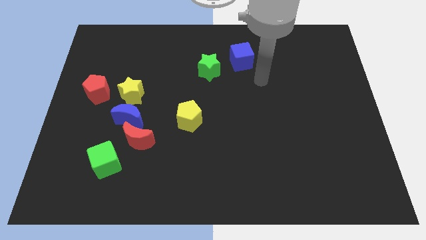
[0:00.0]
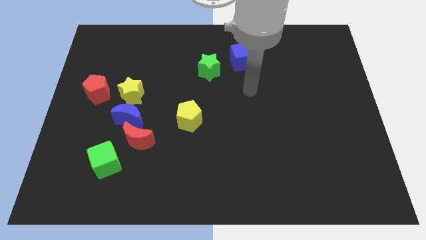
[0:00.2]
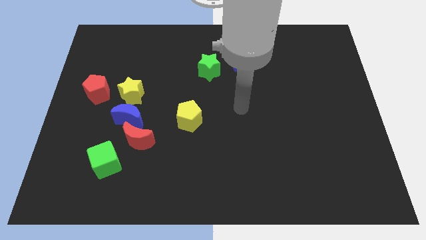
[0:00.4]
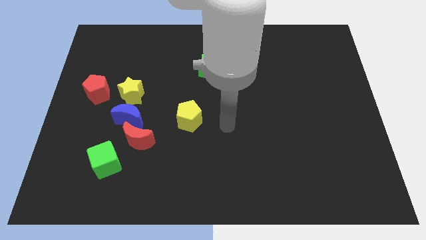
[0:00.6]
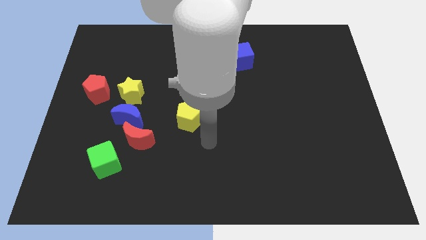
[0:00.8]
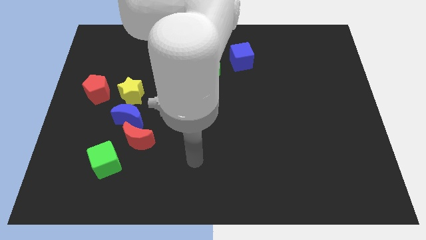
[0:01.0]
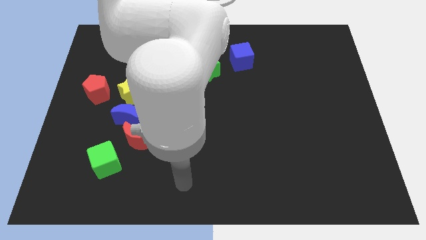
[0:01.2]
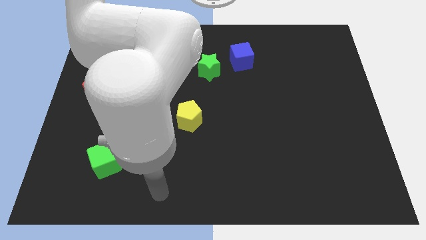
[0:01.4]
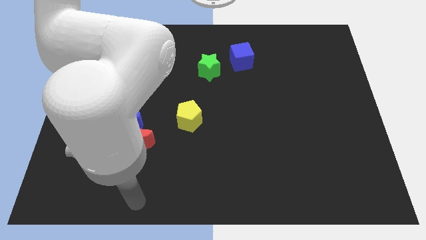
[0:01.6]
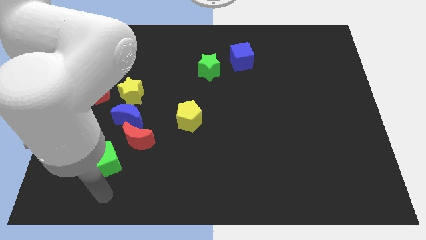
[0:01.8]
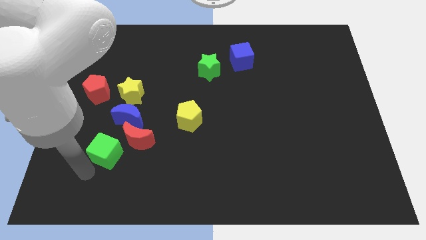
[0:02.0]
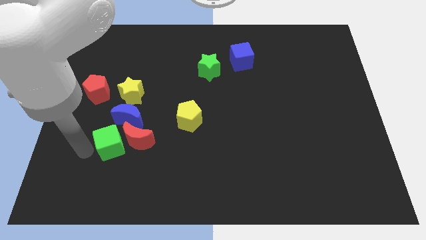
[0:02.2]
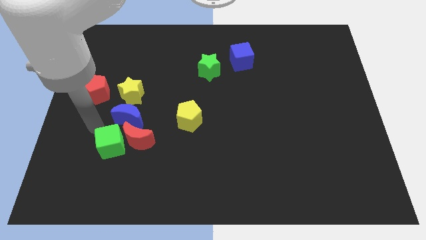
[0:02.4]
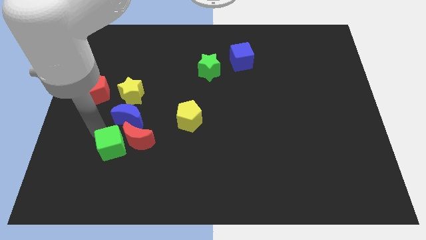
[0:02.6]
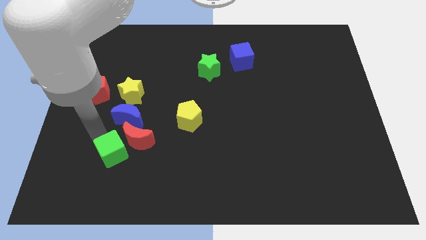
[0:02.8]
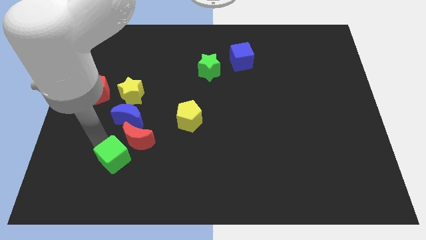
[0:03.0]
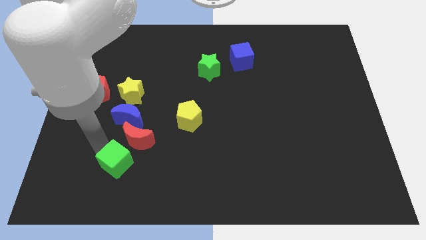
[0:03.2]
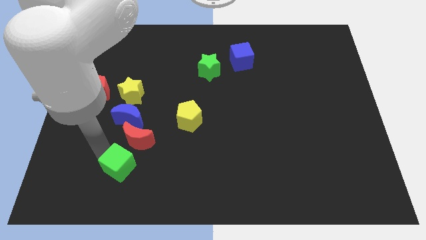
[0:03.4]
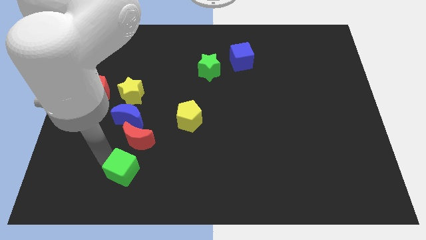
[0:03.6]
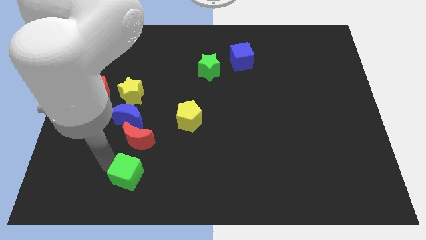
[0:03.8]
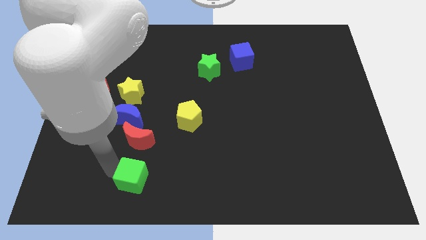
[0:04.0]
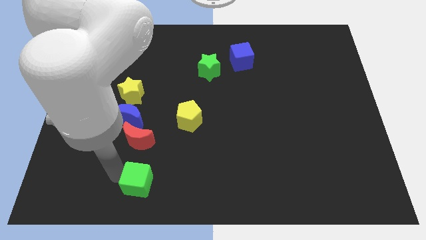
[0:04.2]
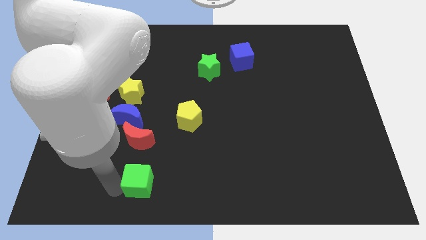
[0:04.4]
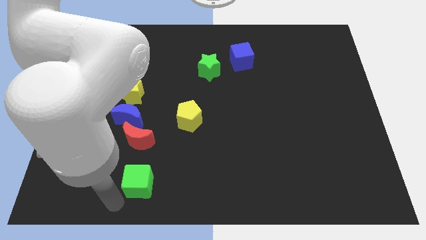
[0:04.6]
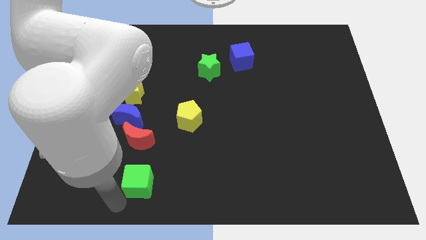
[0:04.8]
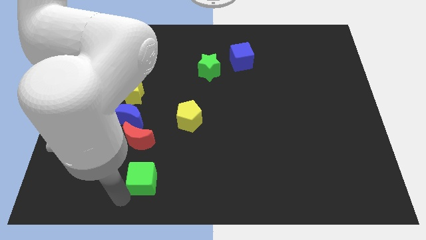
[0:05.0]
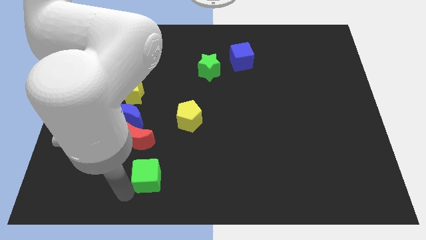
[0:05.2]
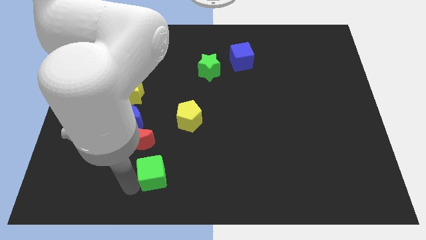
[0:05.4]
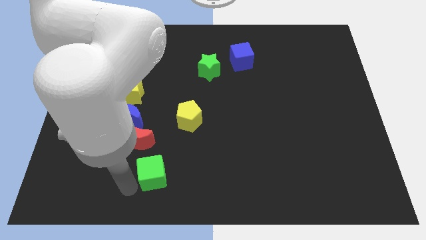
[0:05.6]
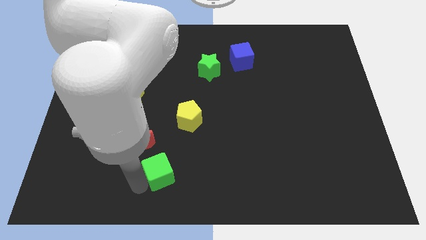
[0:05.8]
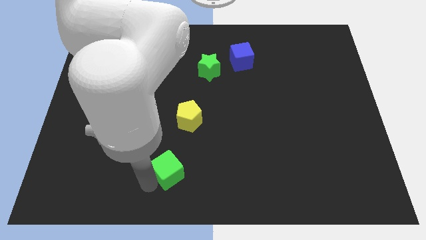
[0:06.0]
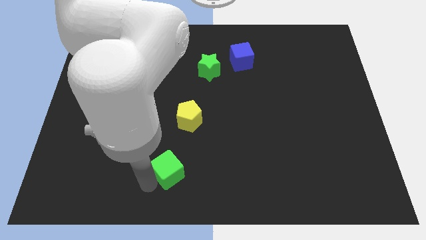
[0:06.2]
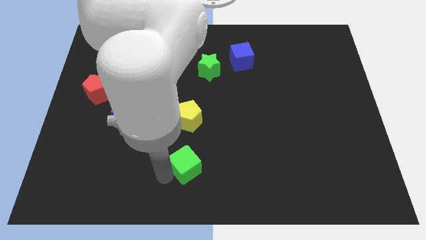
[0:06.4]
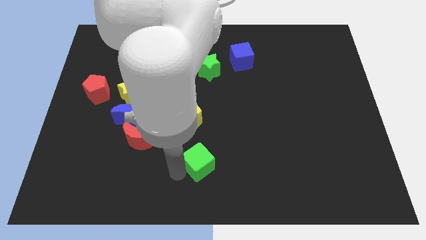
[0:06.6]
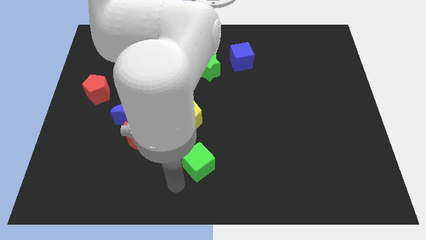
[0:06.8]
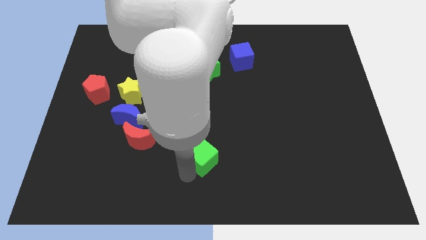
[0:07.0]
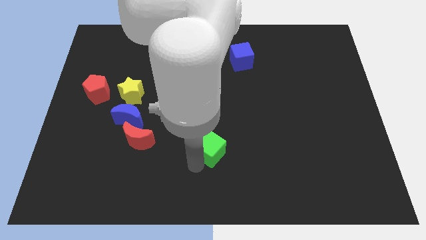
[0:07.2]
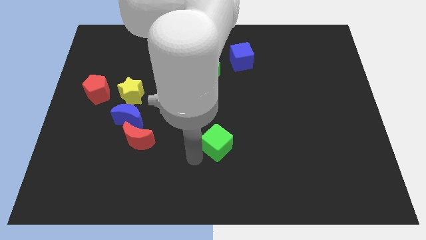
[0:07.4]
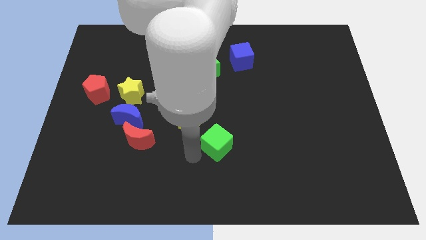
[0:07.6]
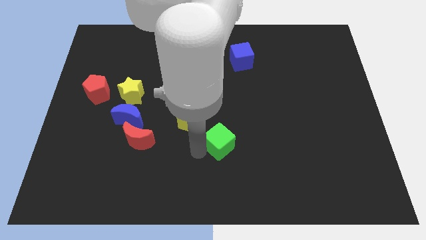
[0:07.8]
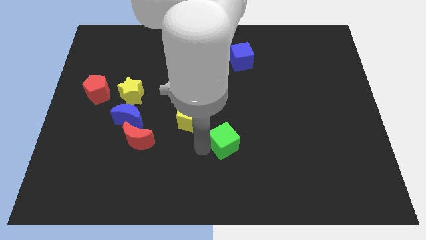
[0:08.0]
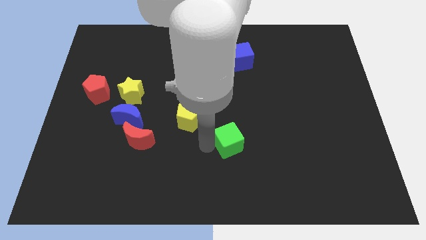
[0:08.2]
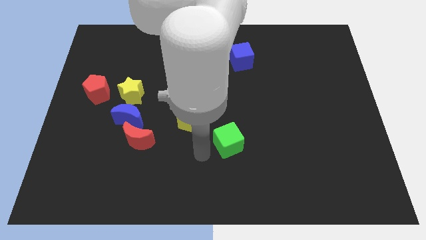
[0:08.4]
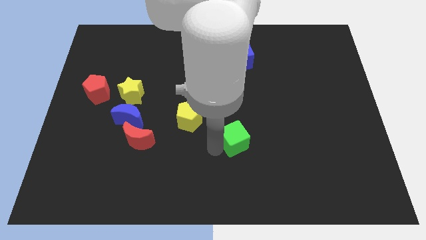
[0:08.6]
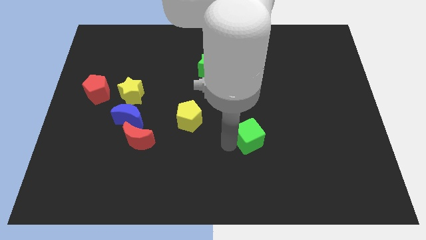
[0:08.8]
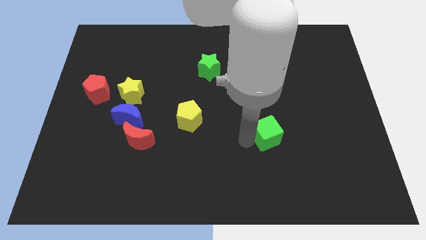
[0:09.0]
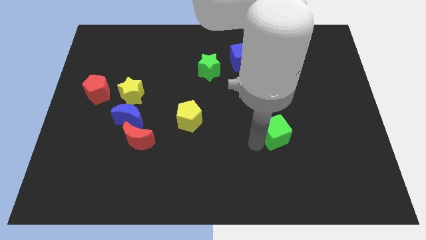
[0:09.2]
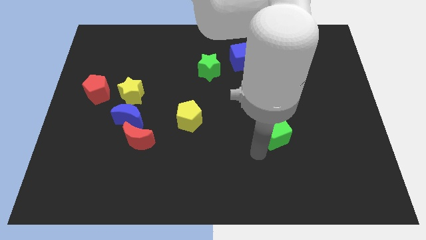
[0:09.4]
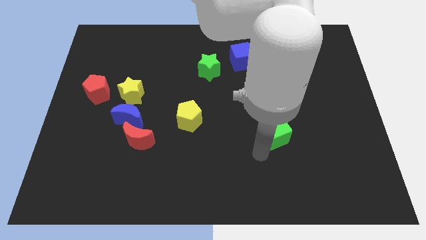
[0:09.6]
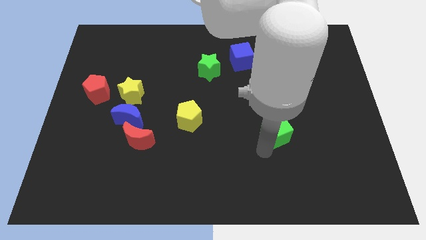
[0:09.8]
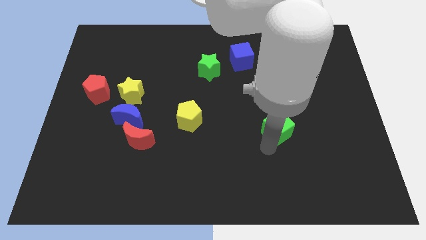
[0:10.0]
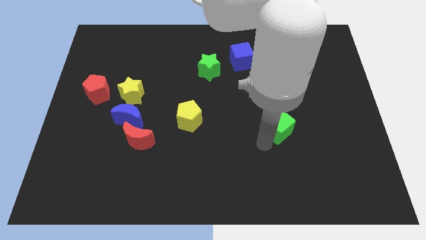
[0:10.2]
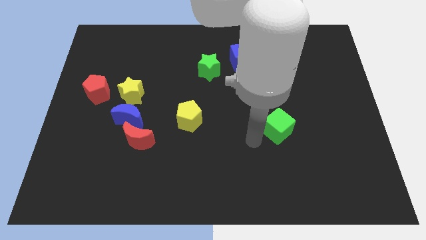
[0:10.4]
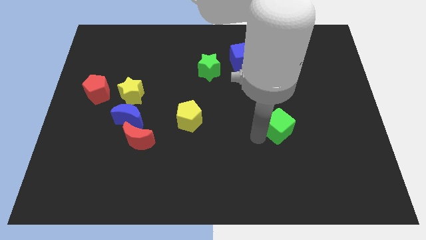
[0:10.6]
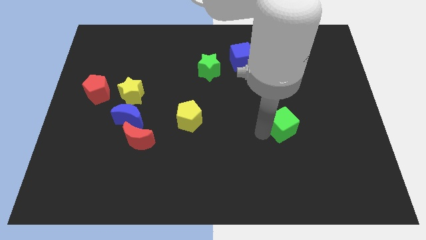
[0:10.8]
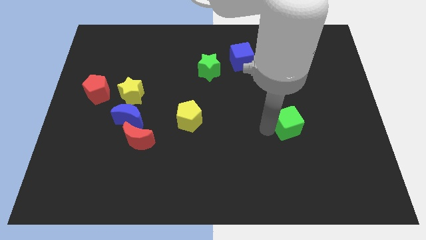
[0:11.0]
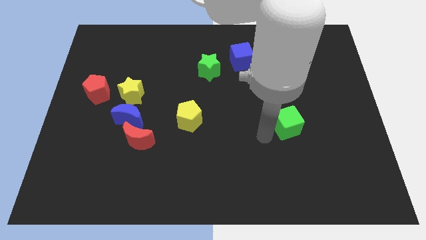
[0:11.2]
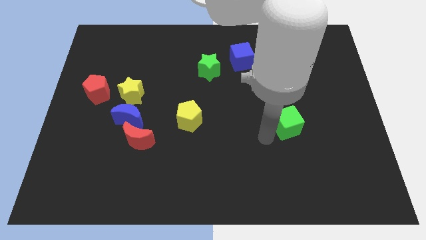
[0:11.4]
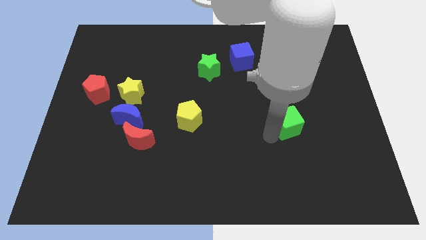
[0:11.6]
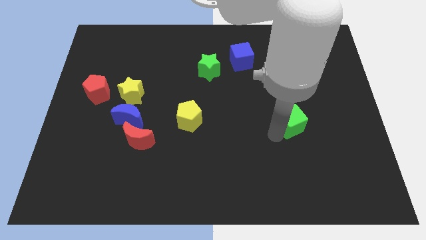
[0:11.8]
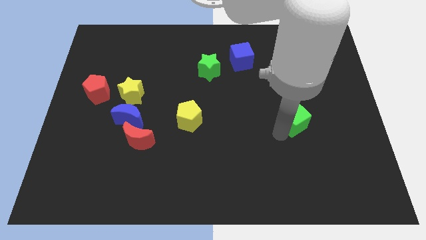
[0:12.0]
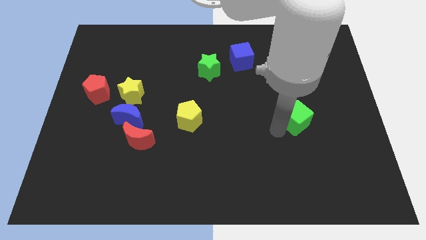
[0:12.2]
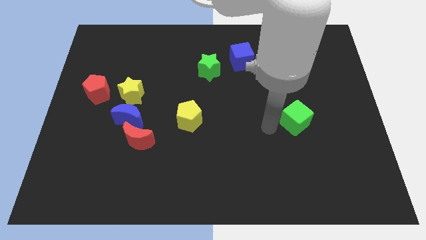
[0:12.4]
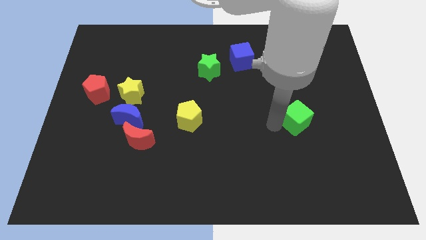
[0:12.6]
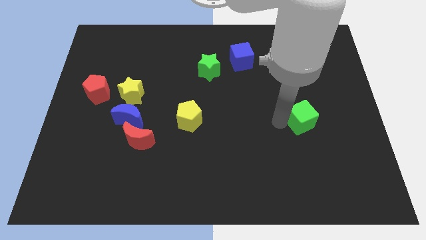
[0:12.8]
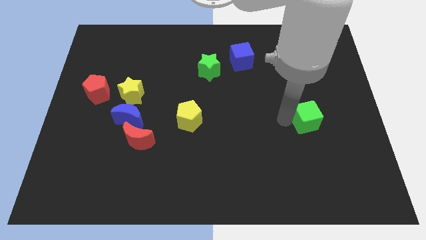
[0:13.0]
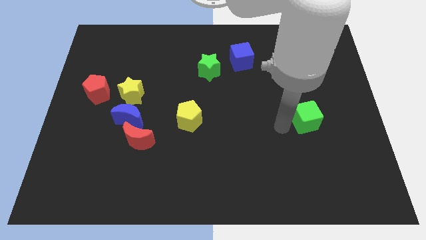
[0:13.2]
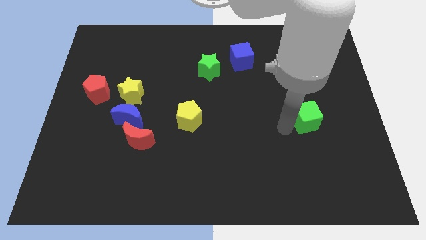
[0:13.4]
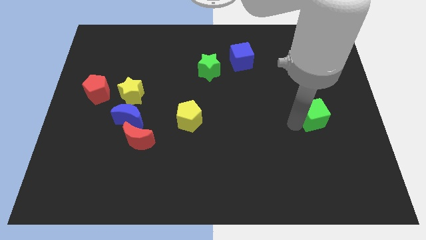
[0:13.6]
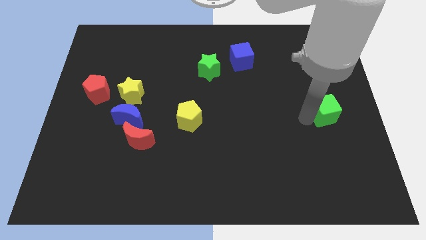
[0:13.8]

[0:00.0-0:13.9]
push the green cube to the center right
